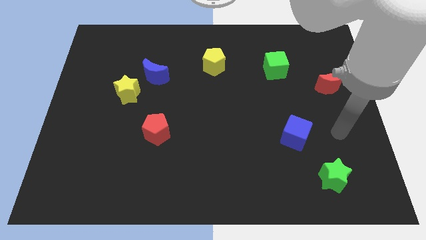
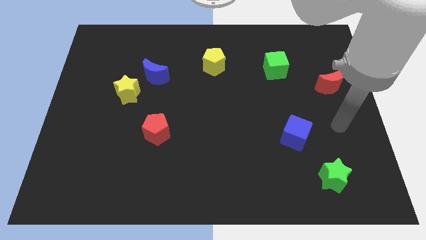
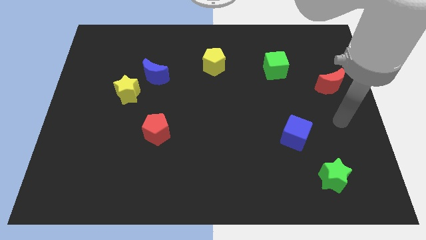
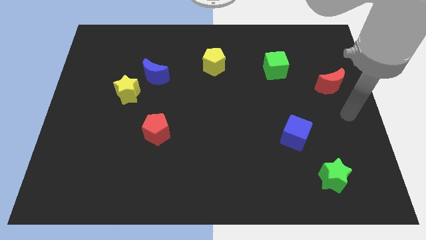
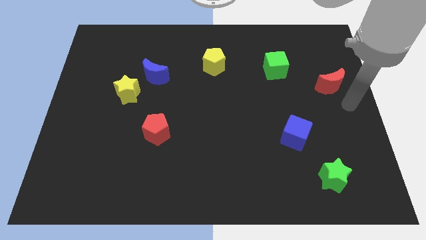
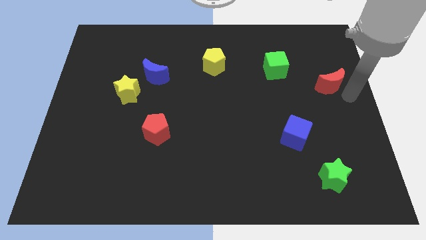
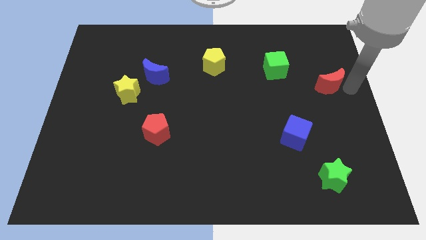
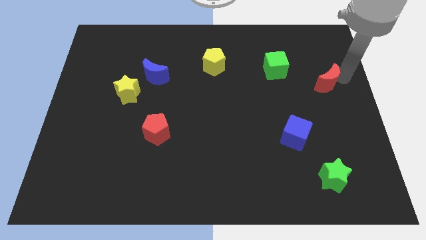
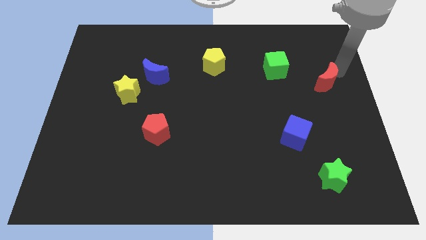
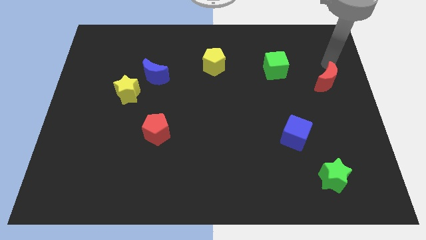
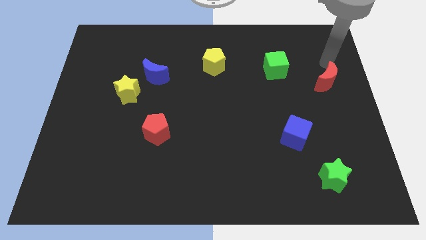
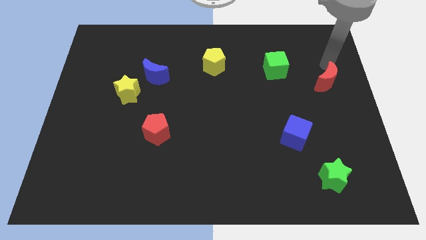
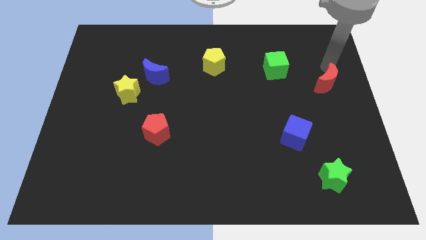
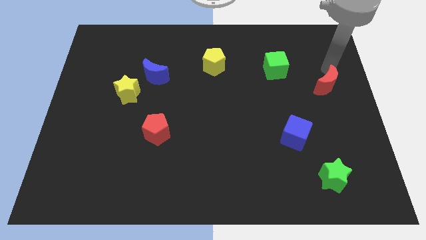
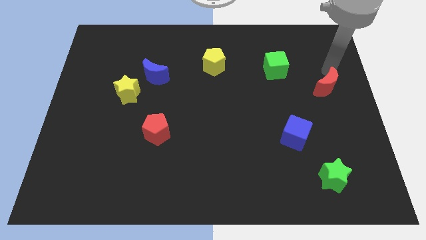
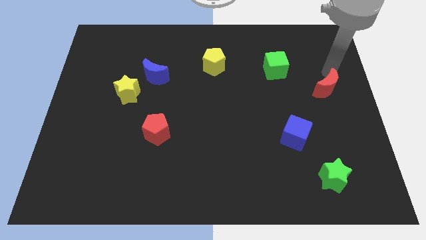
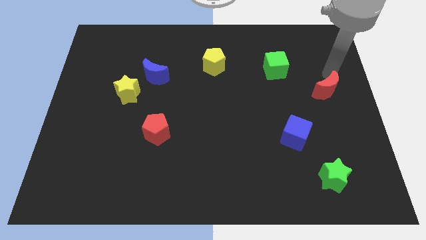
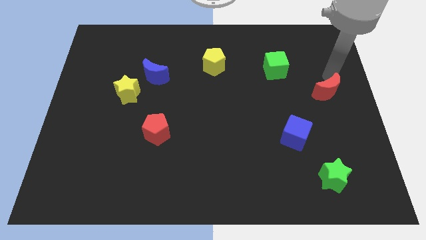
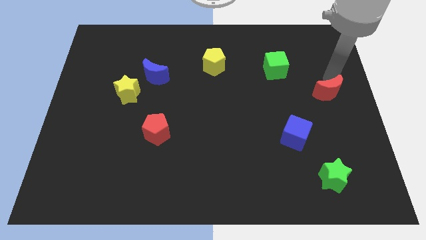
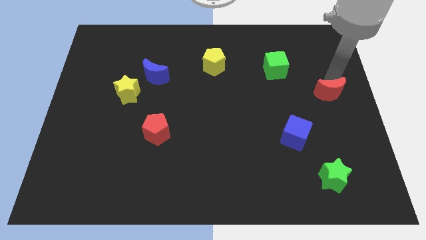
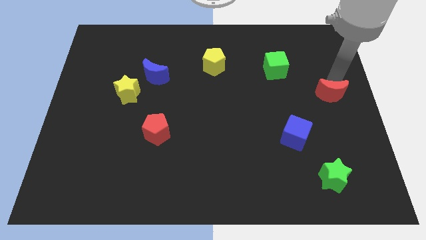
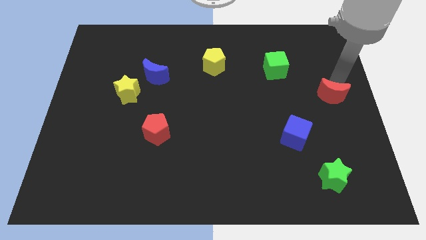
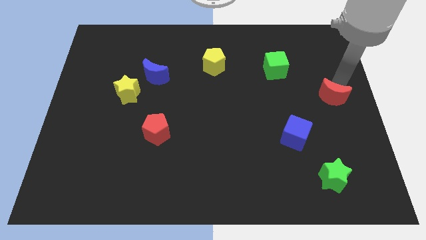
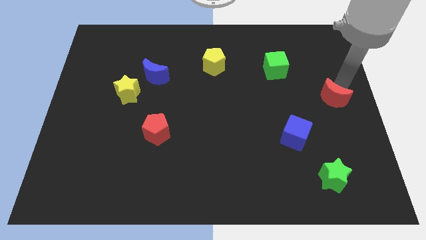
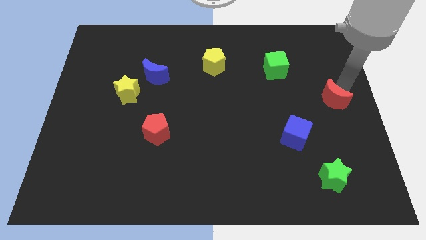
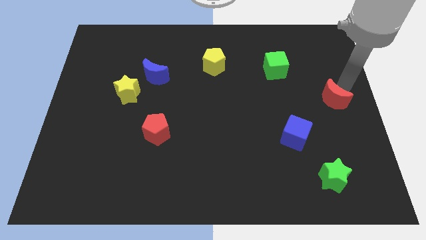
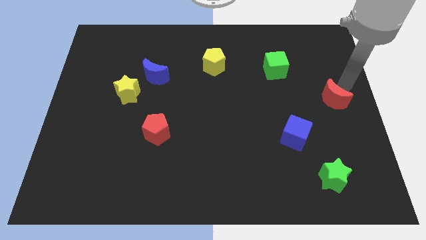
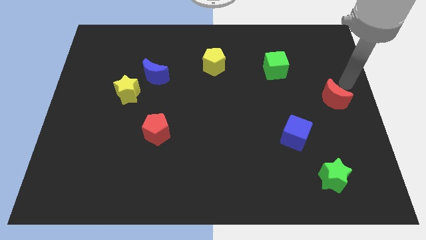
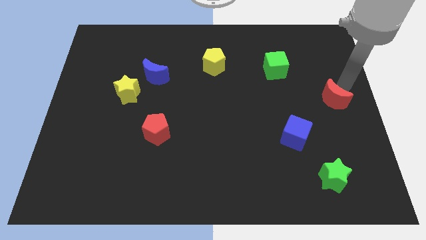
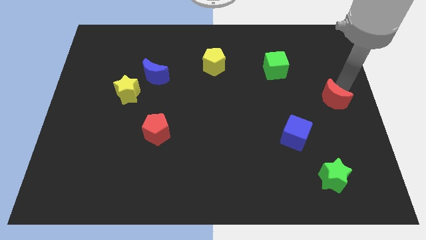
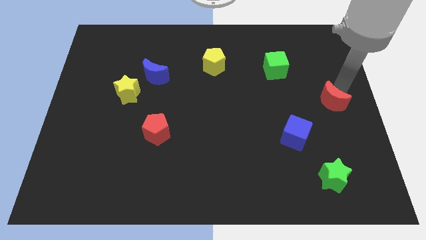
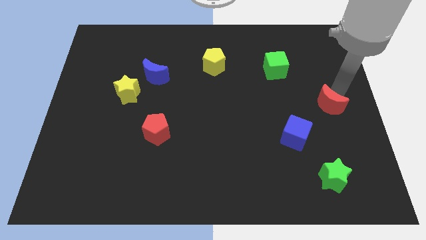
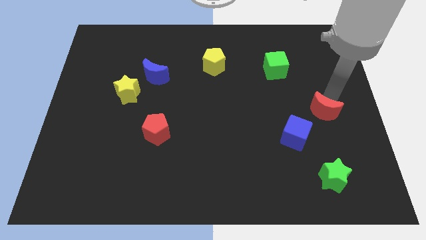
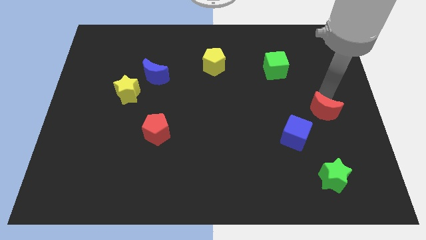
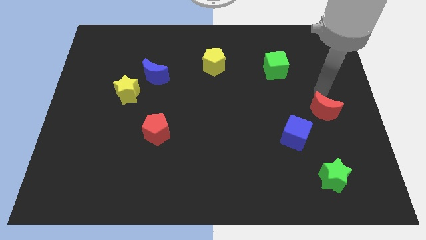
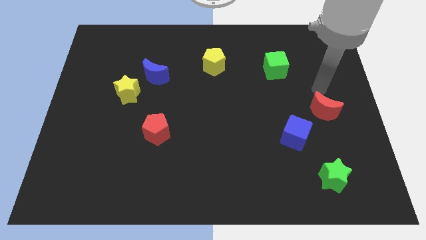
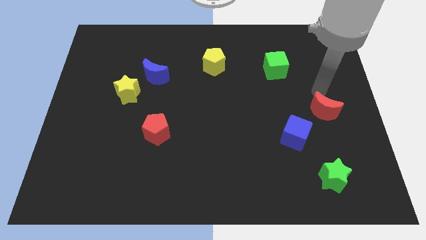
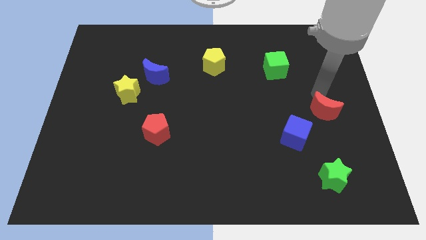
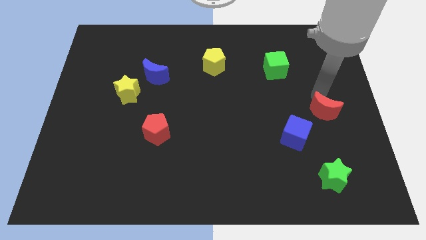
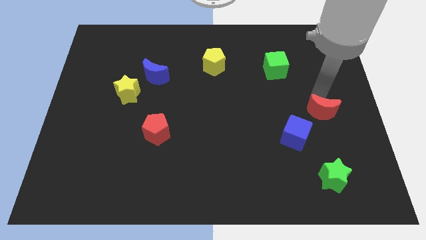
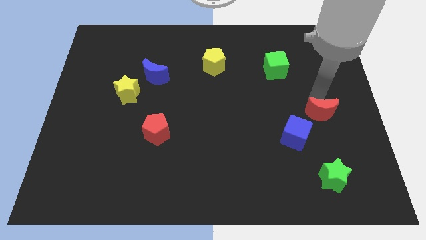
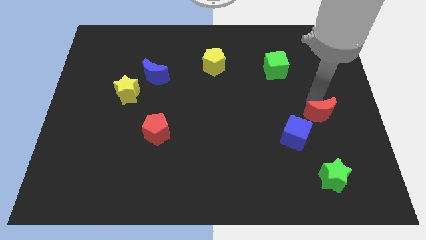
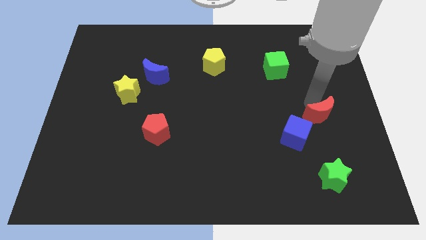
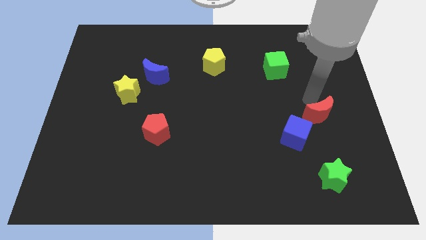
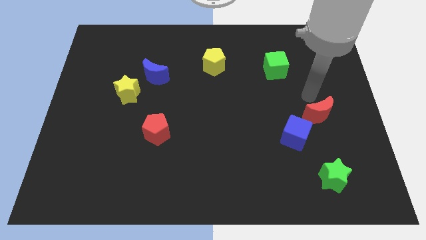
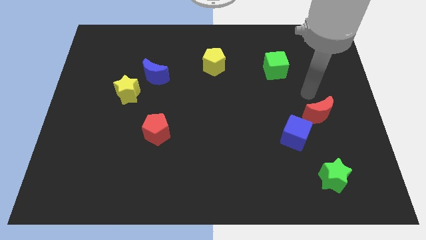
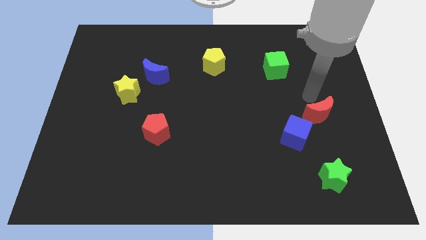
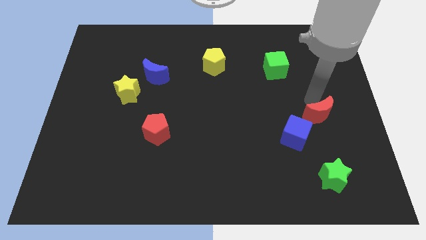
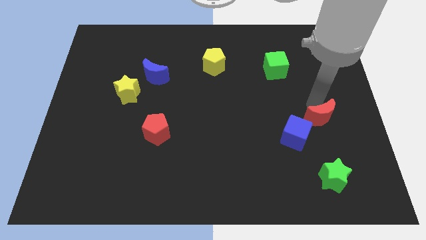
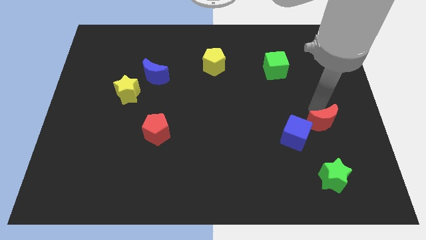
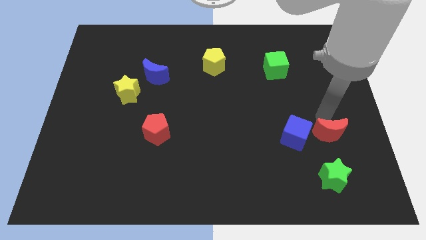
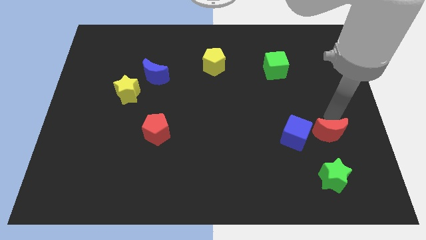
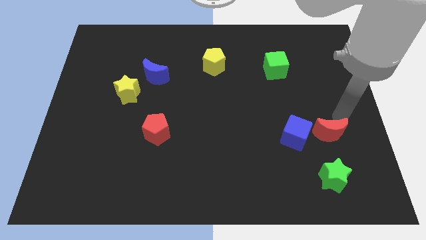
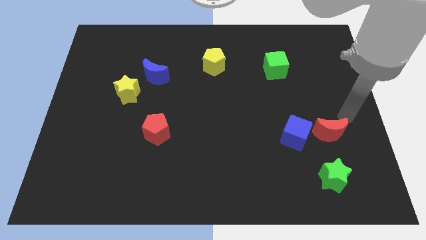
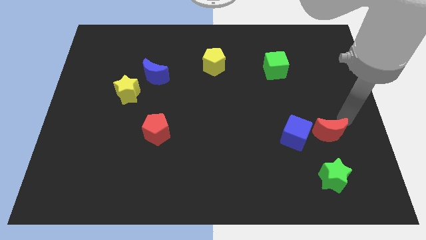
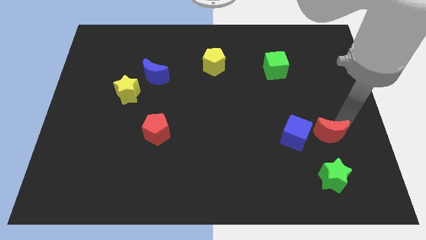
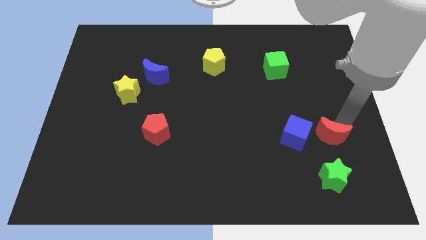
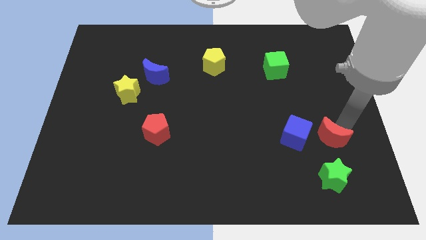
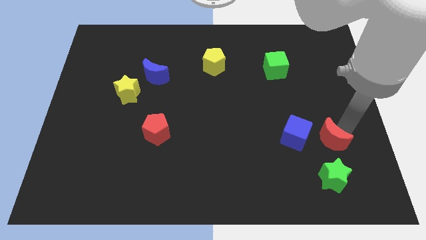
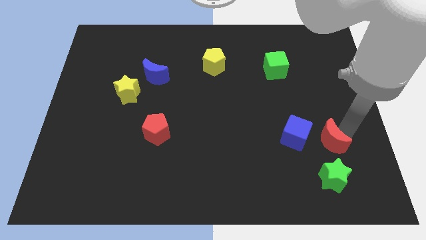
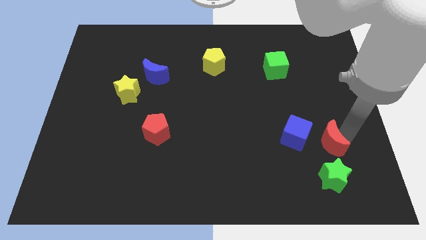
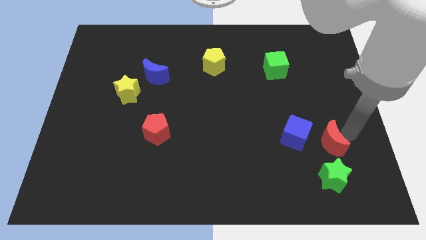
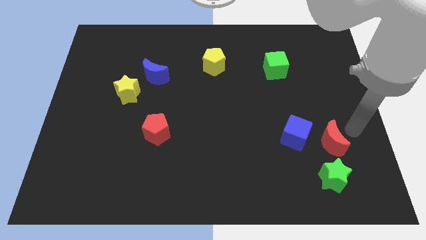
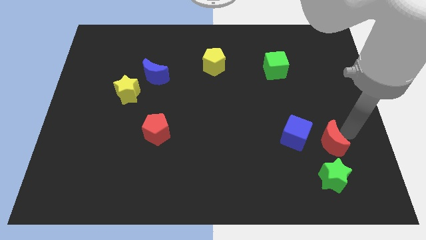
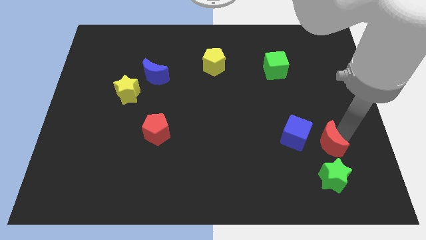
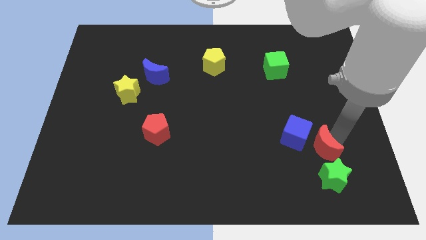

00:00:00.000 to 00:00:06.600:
slide the red moon diagonally up and to the left of the green star

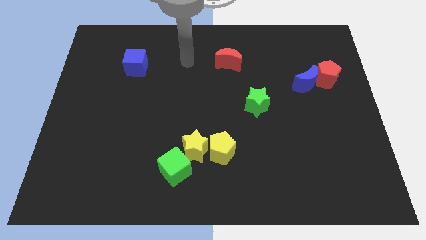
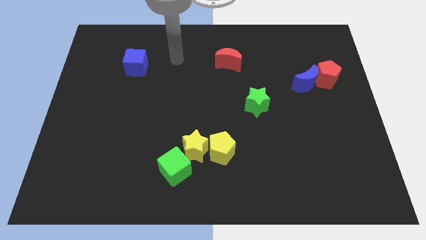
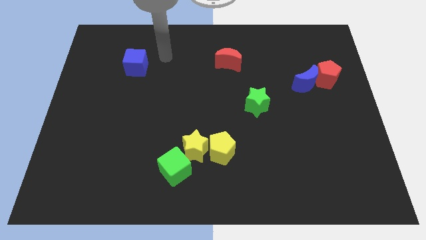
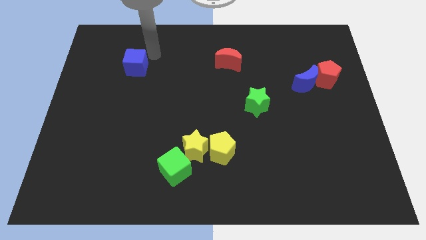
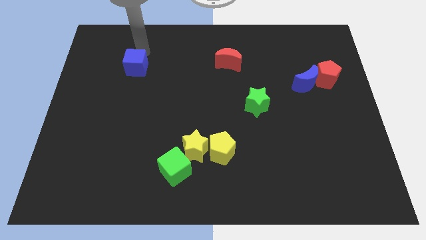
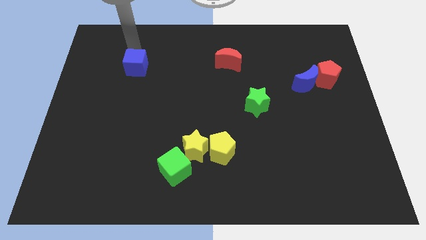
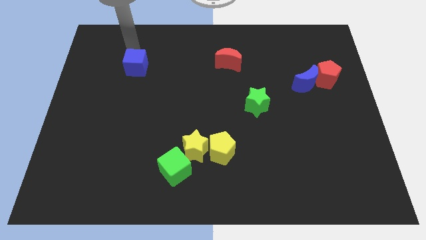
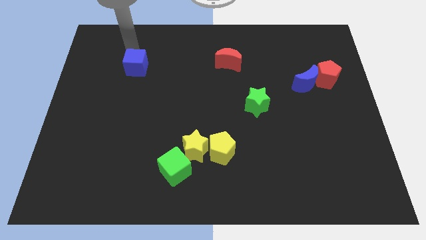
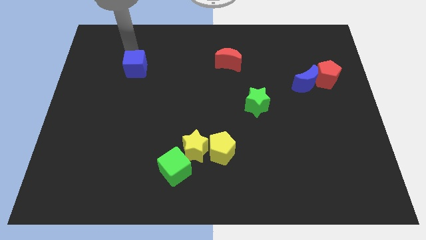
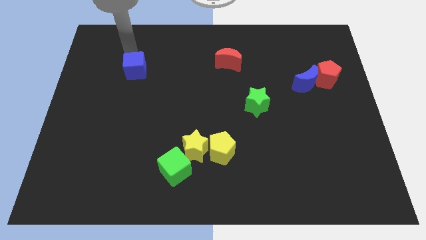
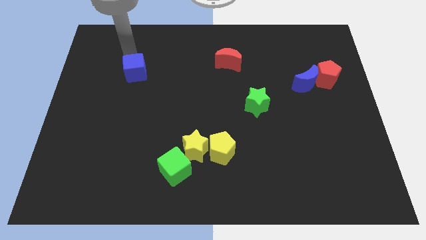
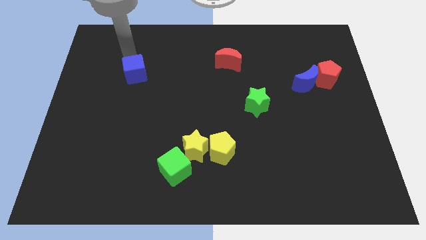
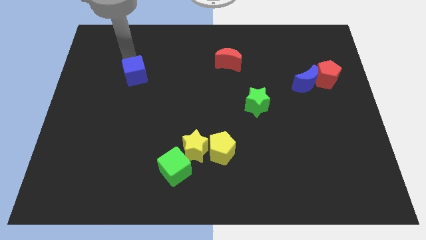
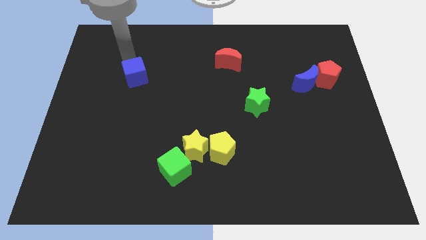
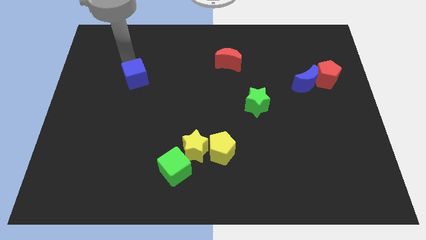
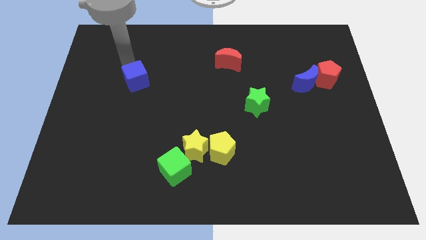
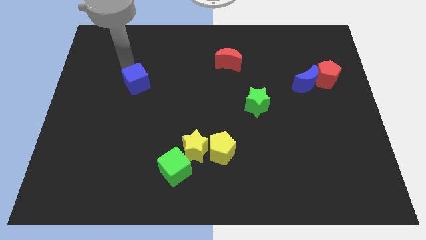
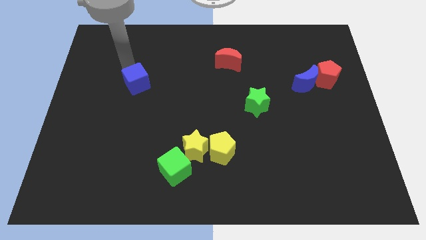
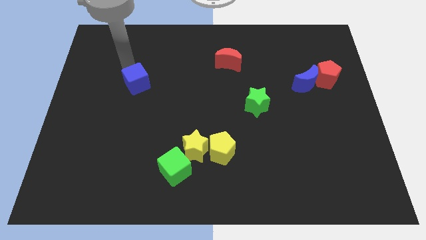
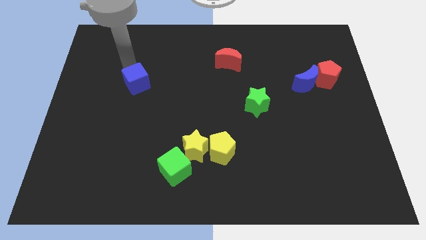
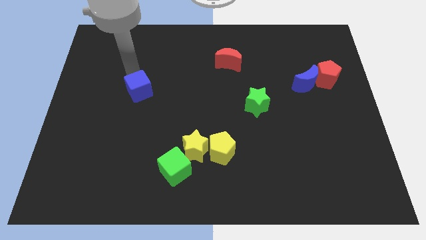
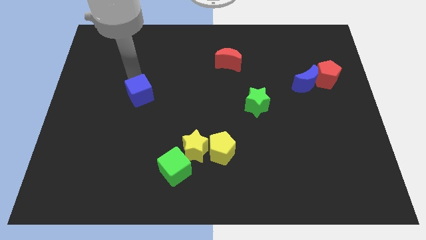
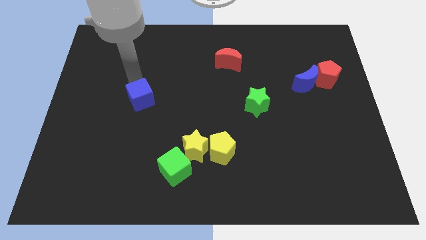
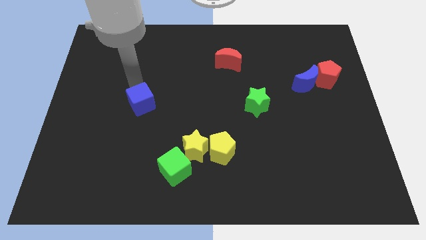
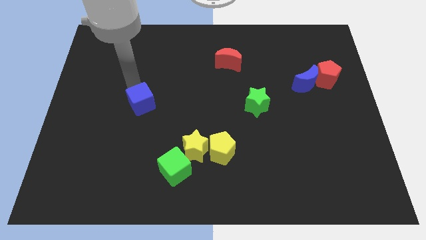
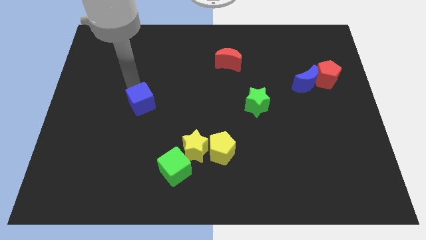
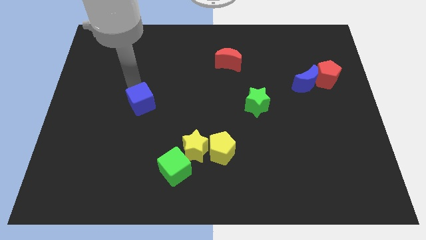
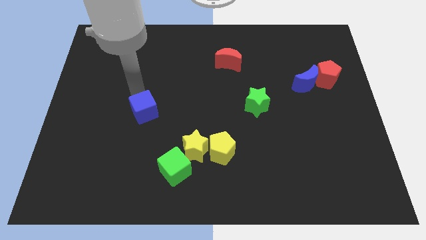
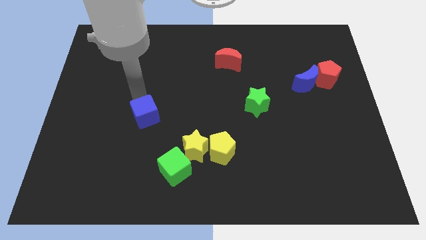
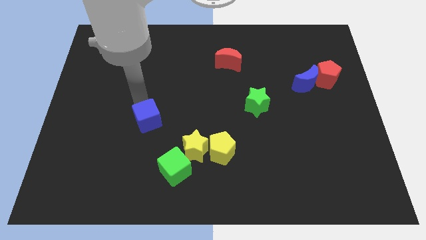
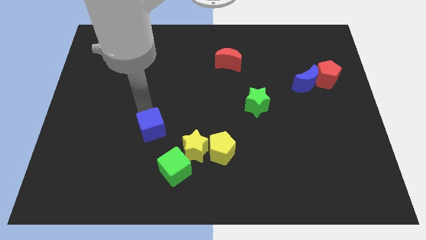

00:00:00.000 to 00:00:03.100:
put the blue cube diagonally up and to the left of the green cube
